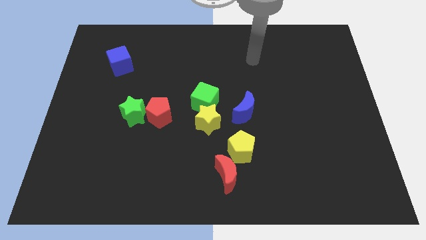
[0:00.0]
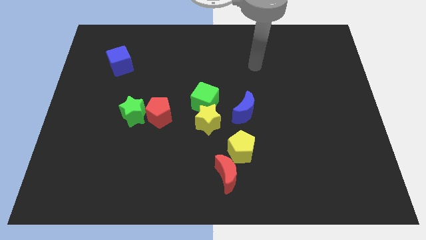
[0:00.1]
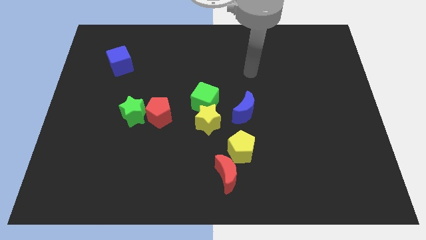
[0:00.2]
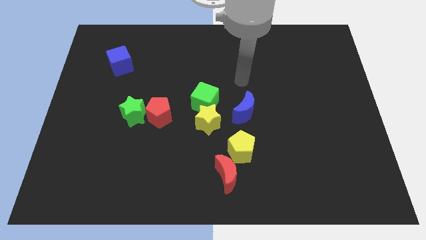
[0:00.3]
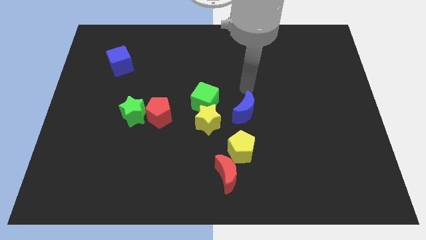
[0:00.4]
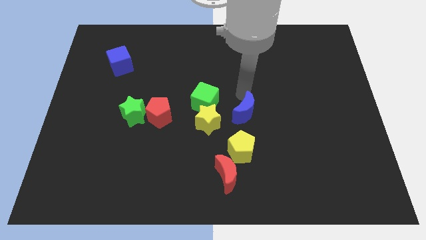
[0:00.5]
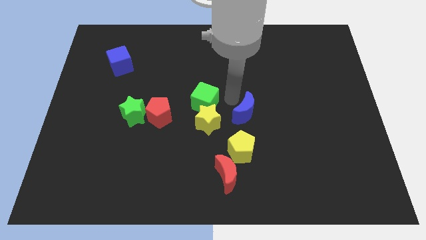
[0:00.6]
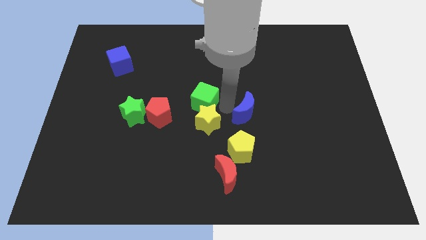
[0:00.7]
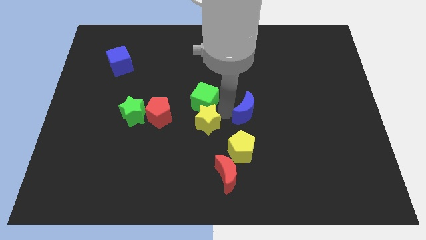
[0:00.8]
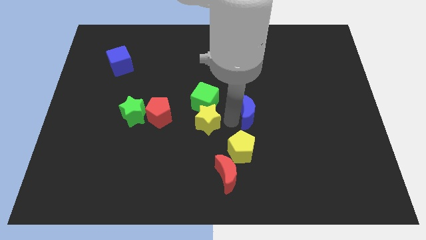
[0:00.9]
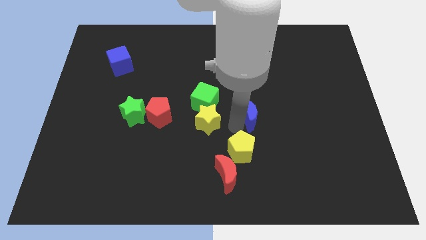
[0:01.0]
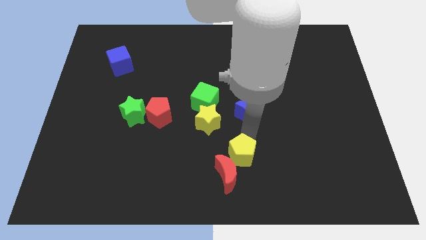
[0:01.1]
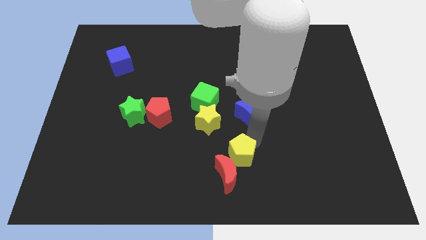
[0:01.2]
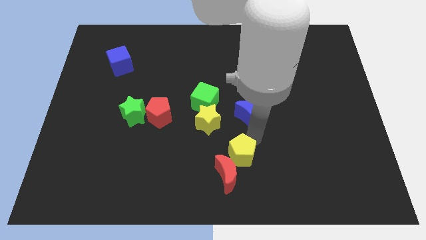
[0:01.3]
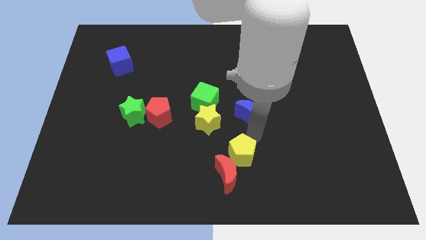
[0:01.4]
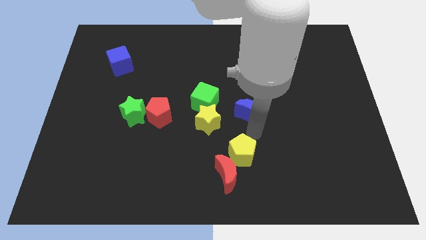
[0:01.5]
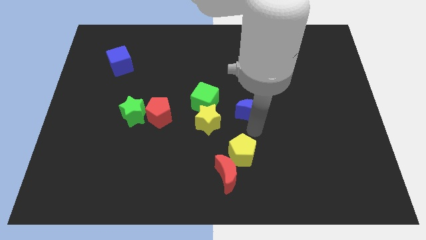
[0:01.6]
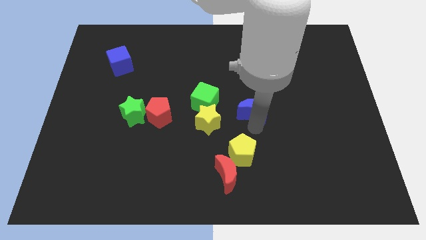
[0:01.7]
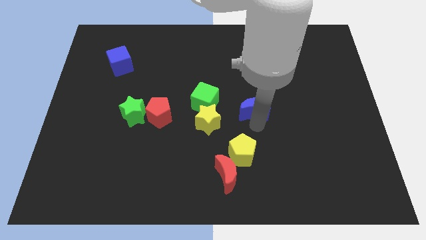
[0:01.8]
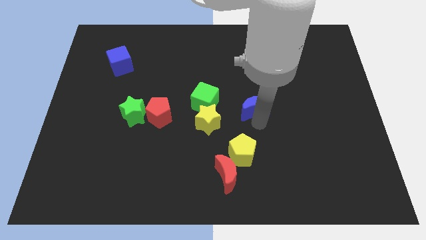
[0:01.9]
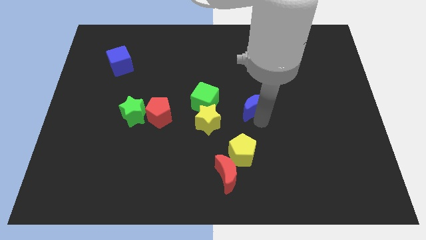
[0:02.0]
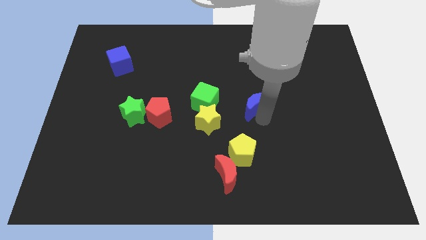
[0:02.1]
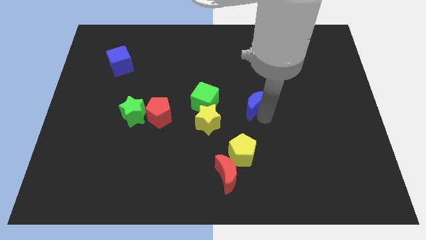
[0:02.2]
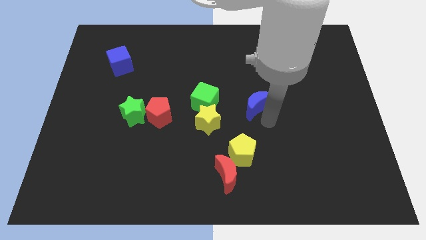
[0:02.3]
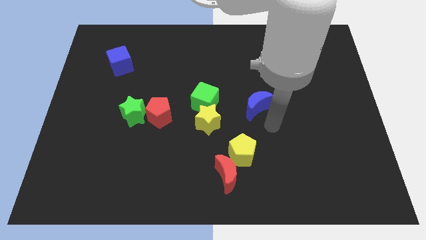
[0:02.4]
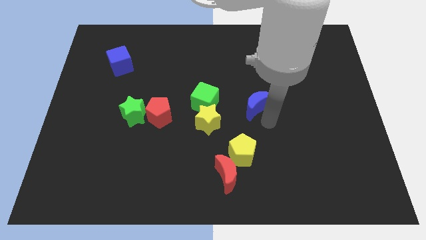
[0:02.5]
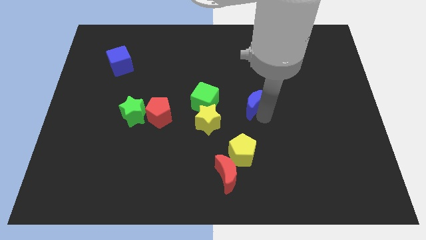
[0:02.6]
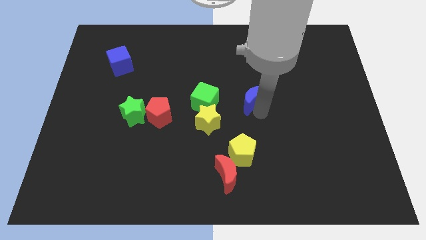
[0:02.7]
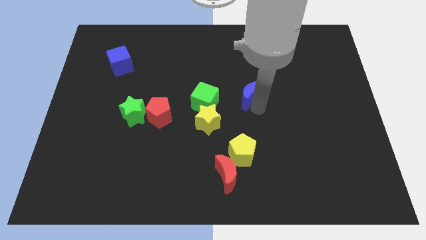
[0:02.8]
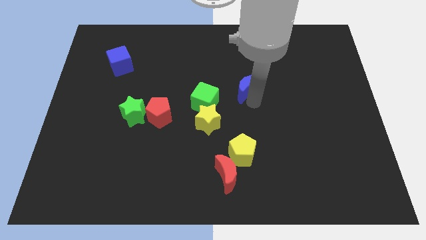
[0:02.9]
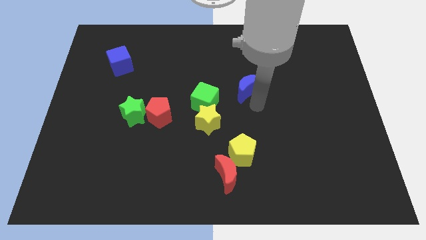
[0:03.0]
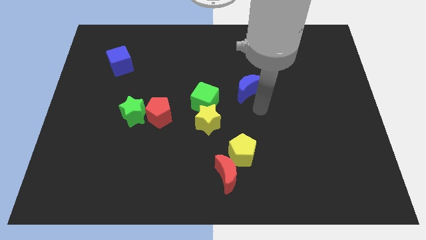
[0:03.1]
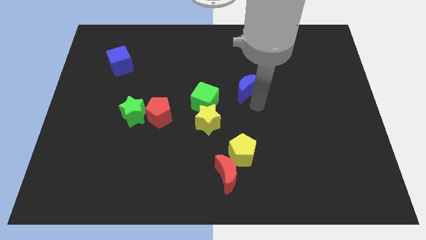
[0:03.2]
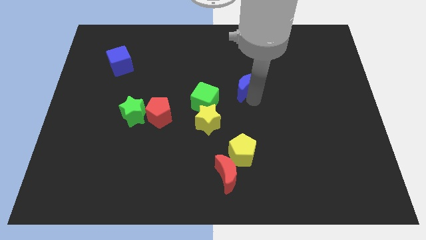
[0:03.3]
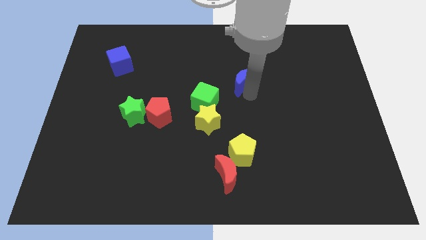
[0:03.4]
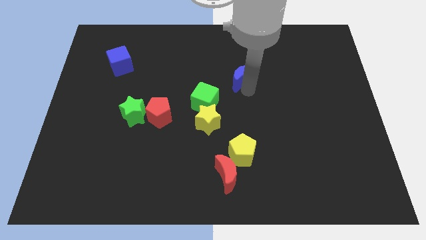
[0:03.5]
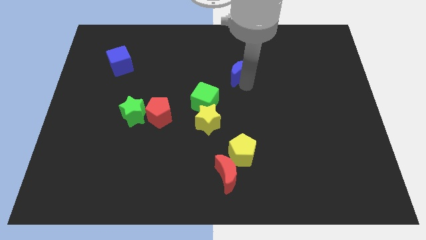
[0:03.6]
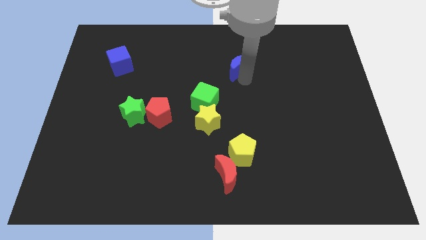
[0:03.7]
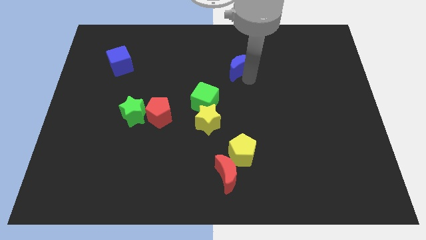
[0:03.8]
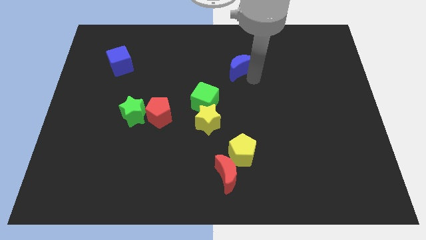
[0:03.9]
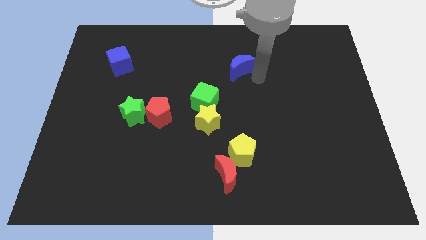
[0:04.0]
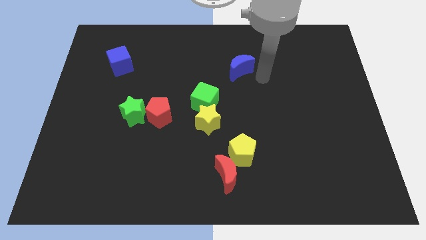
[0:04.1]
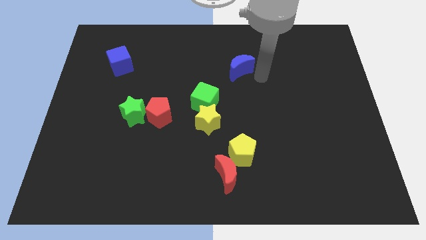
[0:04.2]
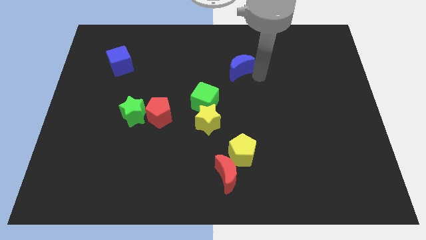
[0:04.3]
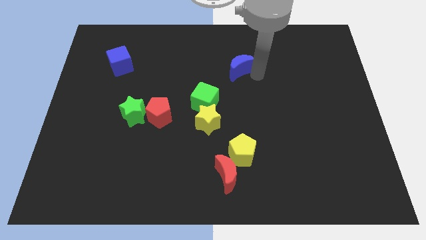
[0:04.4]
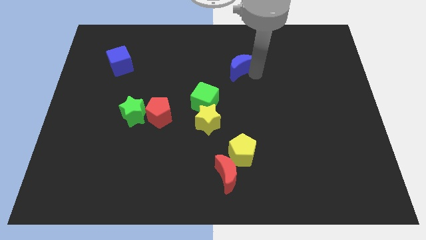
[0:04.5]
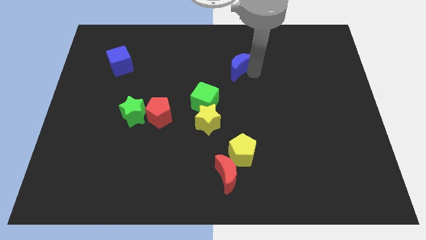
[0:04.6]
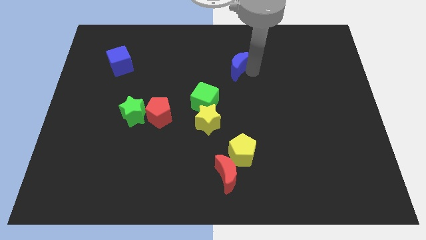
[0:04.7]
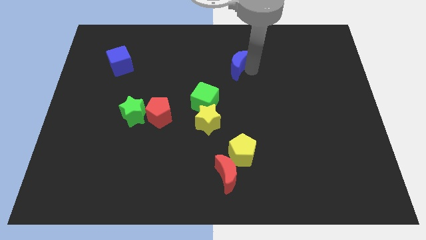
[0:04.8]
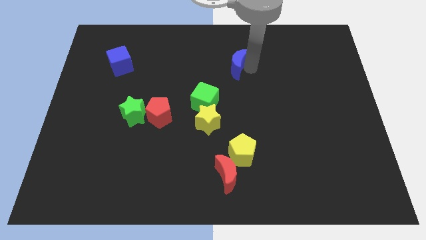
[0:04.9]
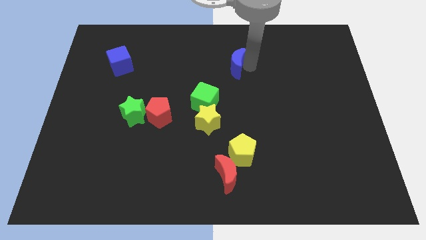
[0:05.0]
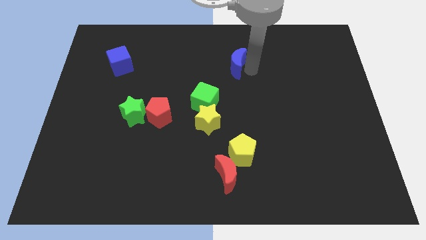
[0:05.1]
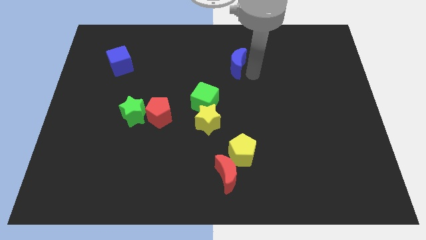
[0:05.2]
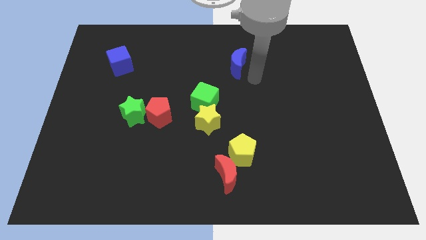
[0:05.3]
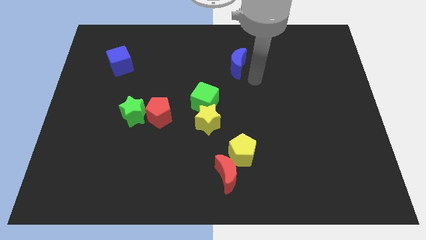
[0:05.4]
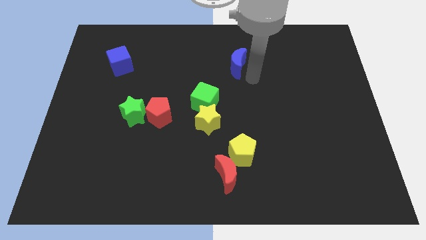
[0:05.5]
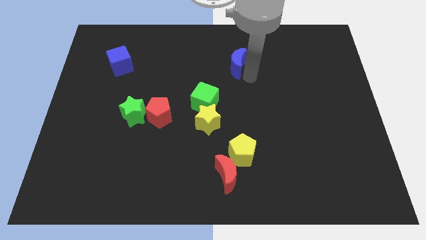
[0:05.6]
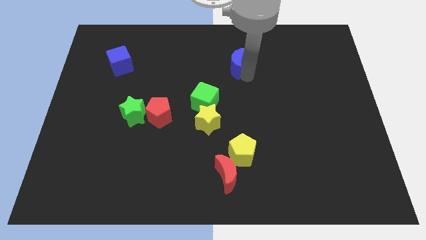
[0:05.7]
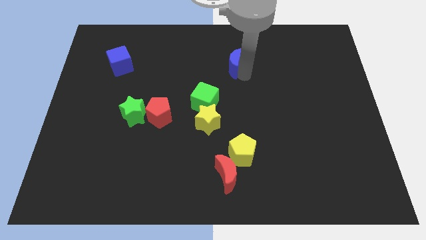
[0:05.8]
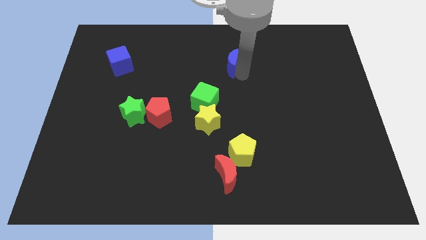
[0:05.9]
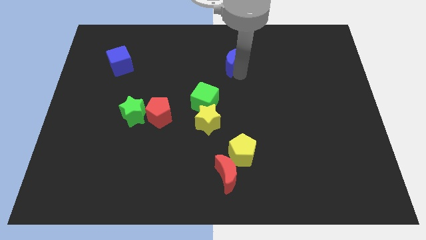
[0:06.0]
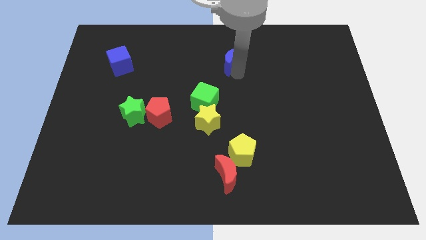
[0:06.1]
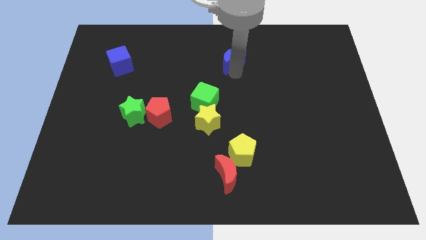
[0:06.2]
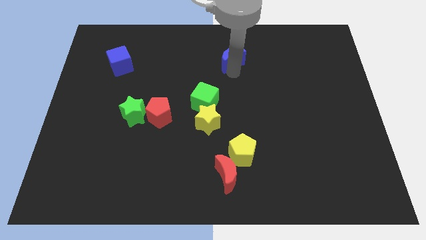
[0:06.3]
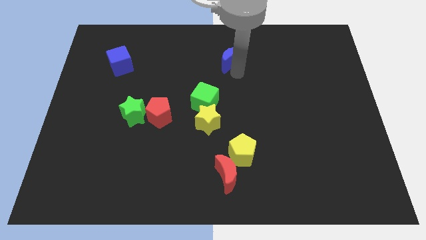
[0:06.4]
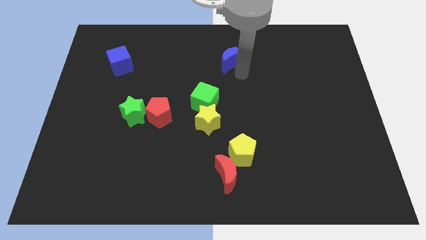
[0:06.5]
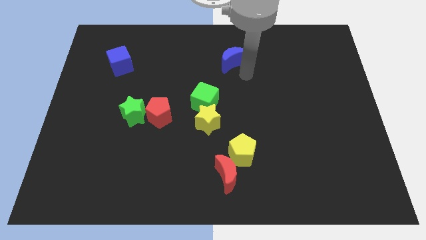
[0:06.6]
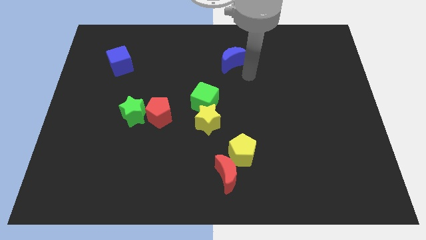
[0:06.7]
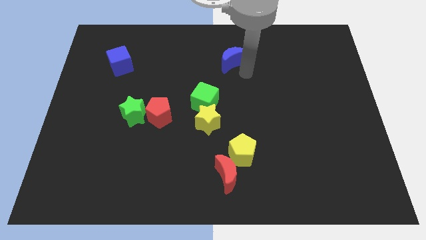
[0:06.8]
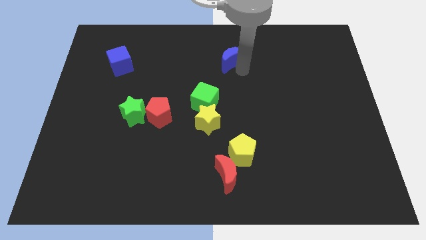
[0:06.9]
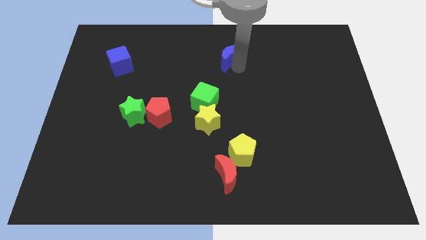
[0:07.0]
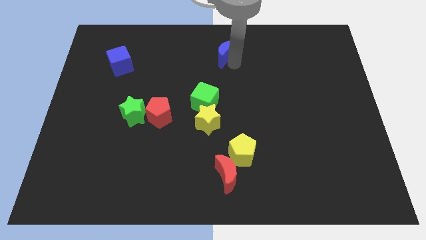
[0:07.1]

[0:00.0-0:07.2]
put the blue moon to the top side

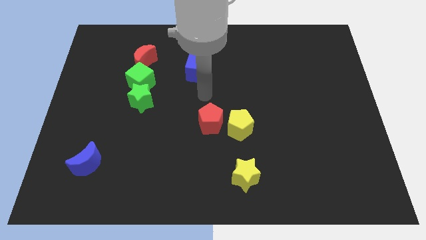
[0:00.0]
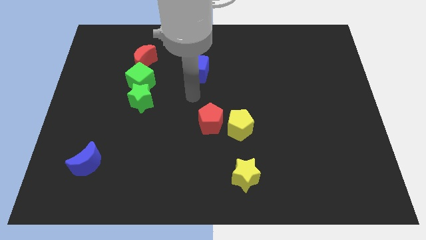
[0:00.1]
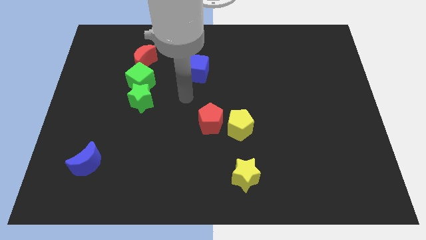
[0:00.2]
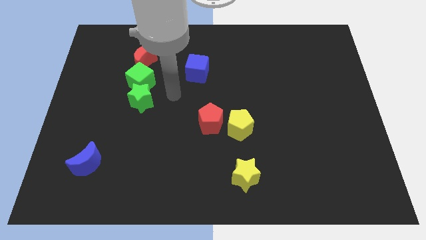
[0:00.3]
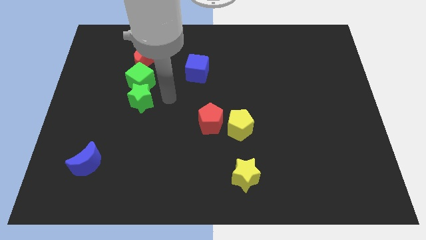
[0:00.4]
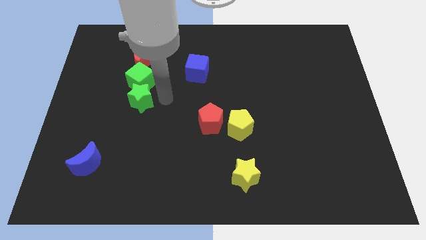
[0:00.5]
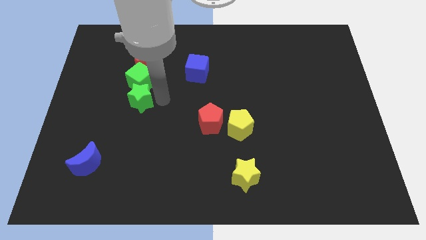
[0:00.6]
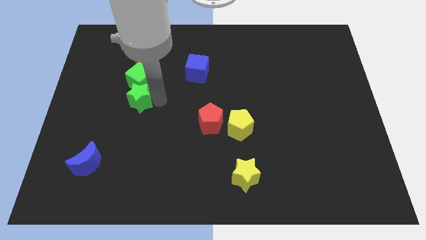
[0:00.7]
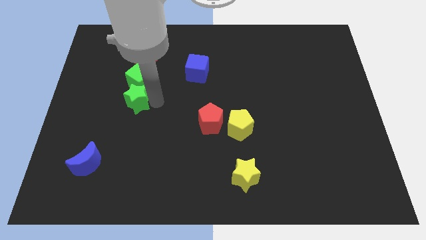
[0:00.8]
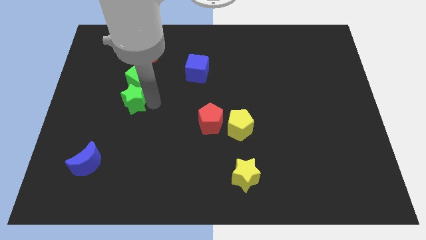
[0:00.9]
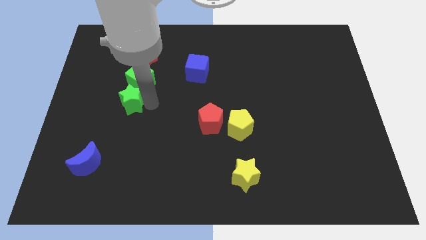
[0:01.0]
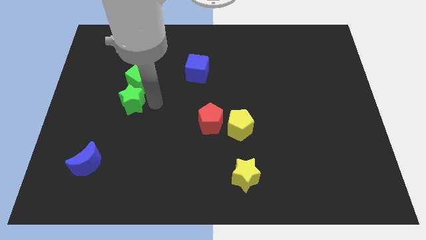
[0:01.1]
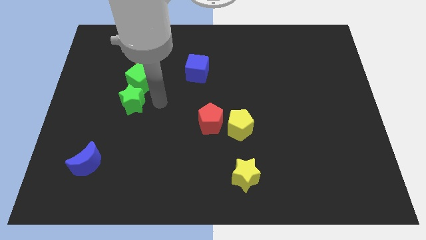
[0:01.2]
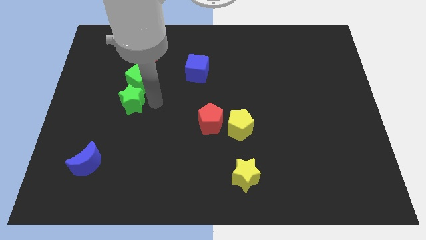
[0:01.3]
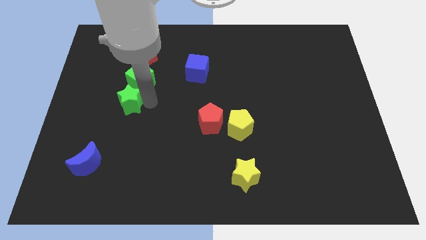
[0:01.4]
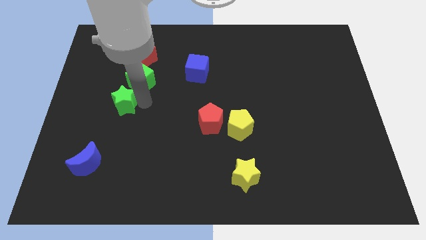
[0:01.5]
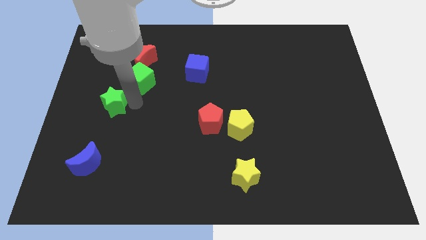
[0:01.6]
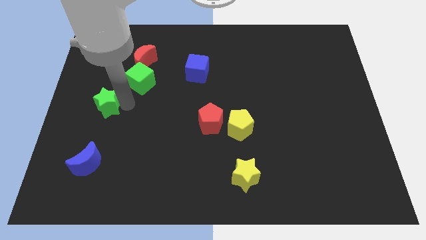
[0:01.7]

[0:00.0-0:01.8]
put the green star to the left side
